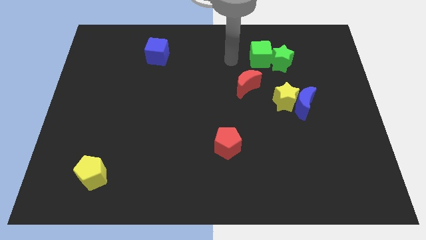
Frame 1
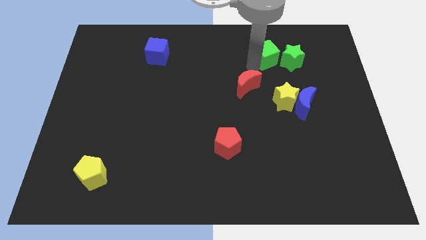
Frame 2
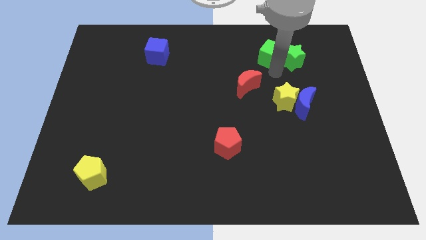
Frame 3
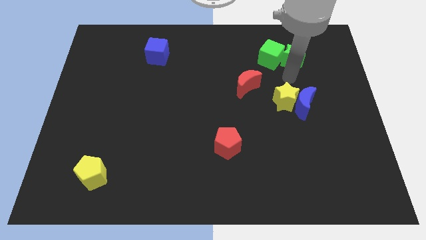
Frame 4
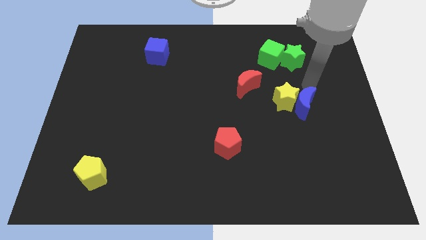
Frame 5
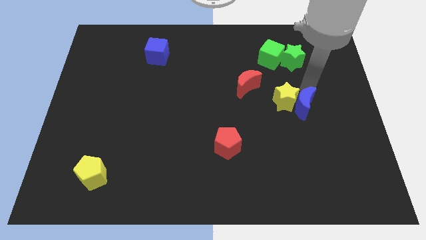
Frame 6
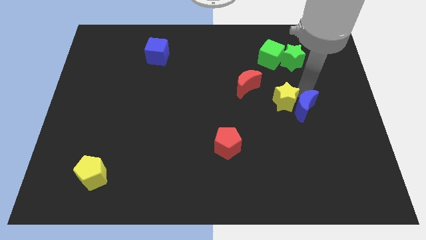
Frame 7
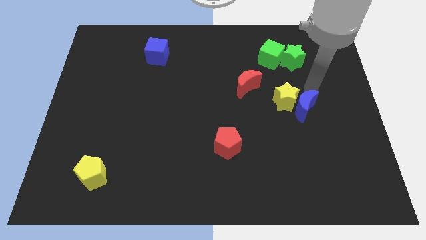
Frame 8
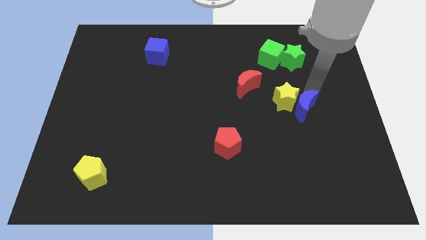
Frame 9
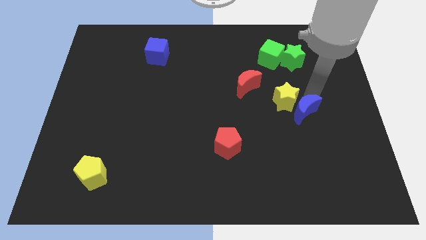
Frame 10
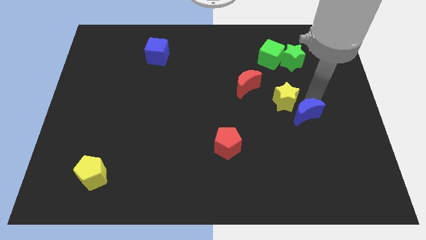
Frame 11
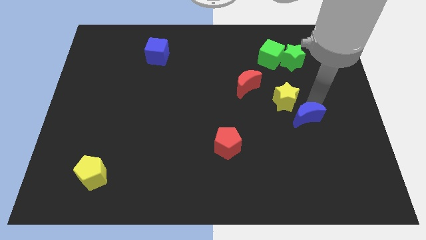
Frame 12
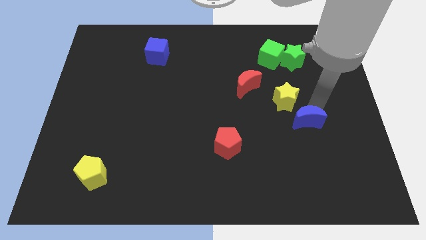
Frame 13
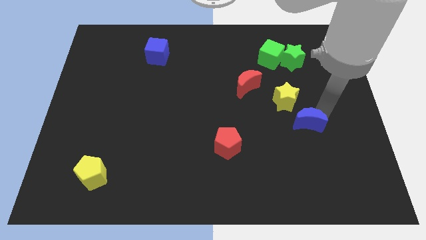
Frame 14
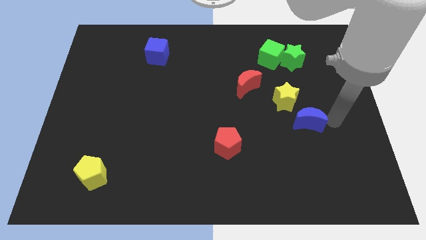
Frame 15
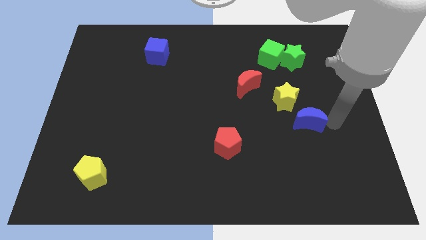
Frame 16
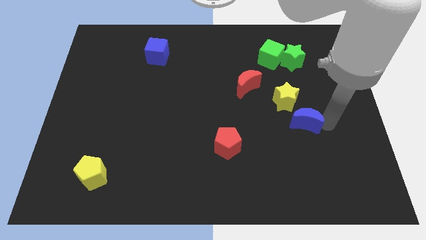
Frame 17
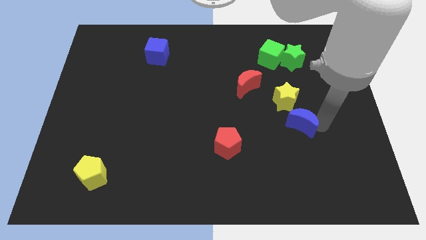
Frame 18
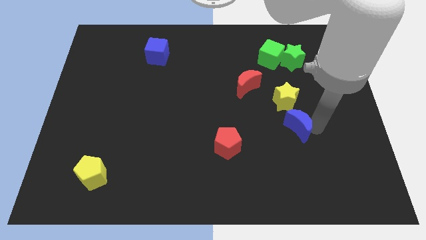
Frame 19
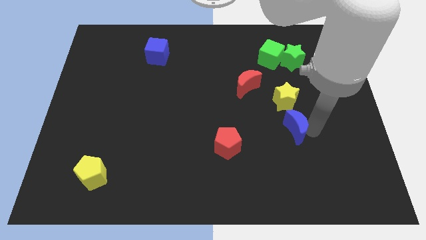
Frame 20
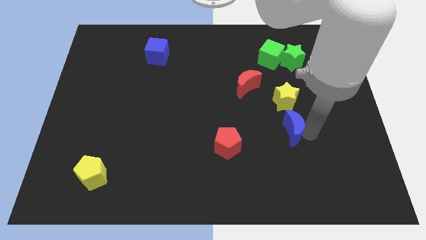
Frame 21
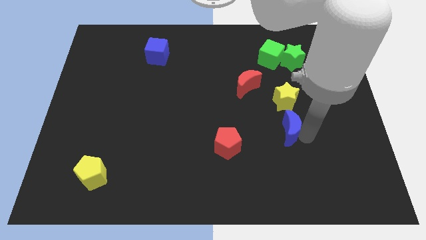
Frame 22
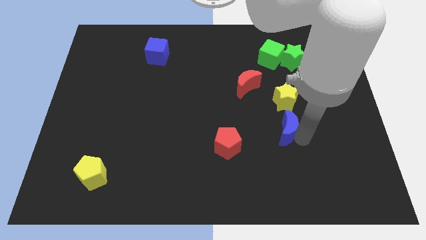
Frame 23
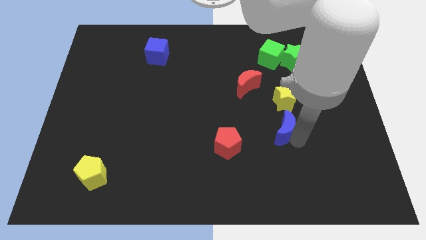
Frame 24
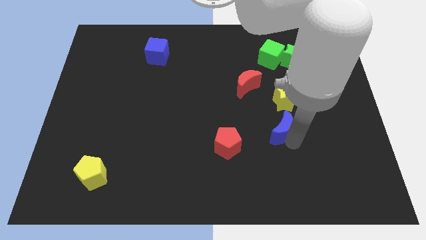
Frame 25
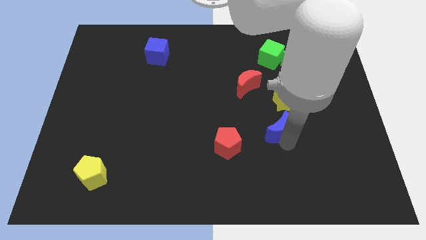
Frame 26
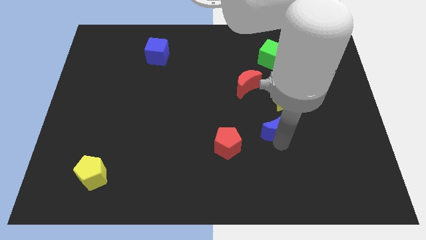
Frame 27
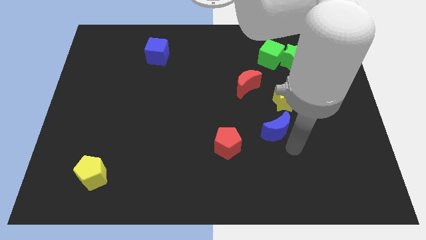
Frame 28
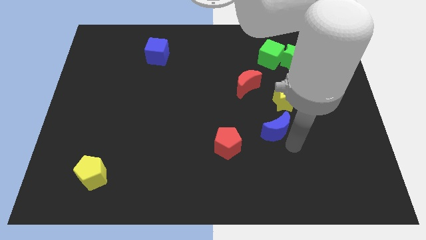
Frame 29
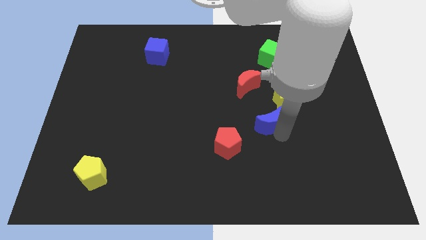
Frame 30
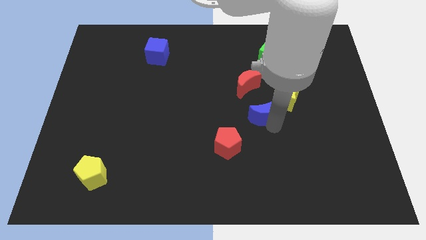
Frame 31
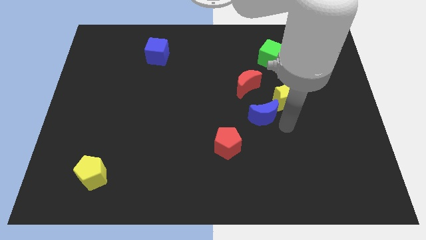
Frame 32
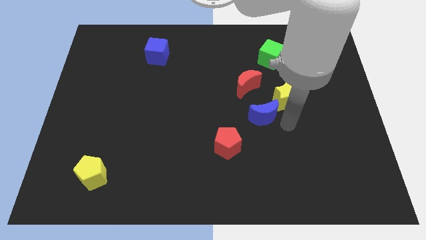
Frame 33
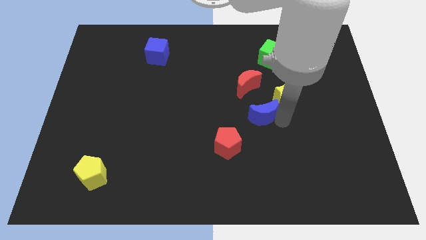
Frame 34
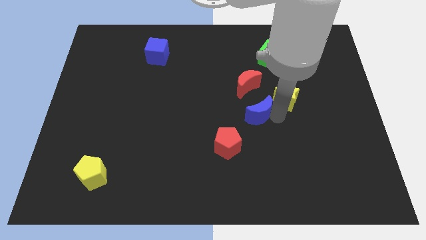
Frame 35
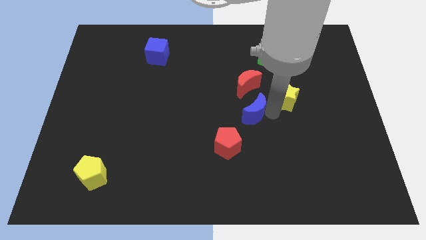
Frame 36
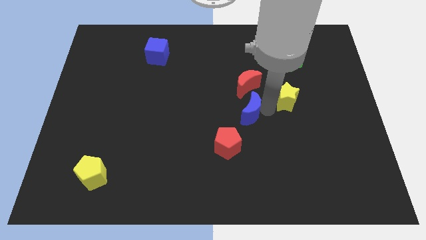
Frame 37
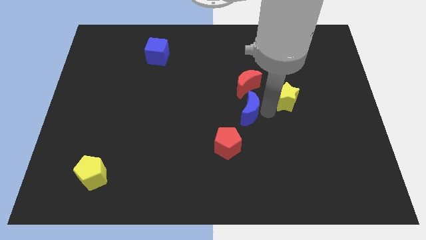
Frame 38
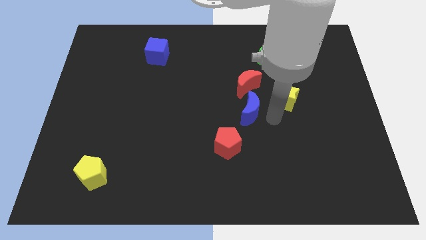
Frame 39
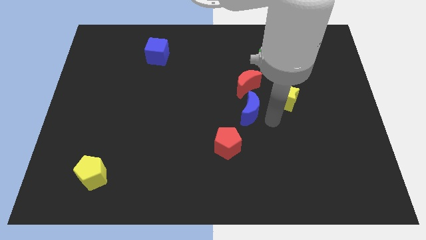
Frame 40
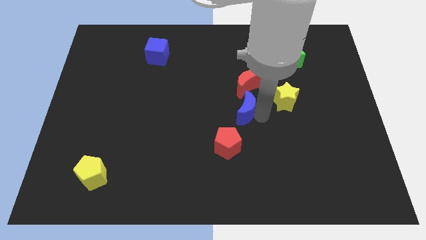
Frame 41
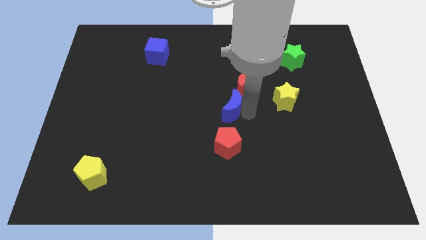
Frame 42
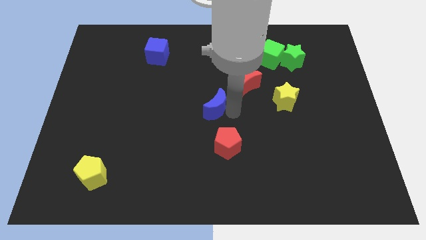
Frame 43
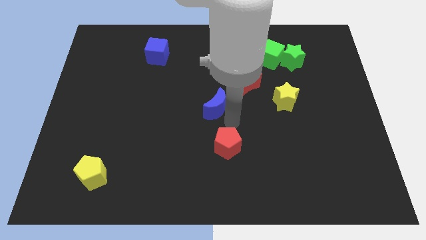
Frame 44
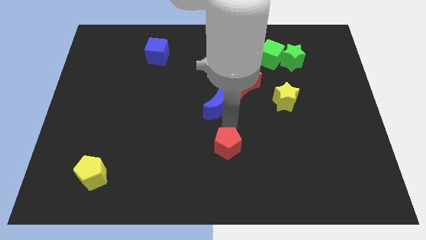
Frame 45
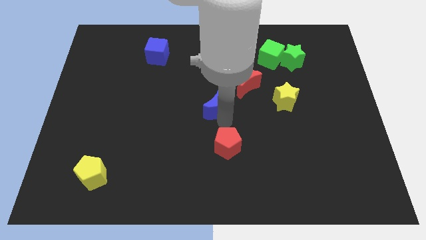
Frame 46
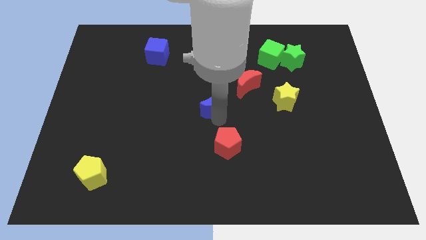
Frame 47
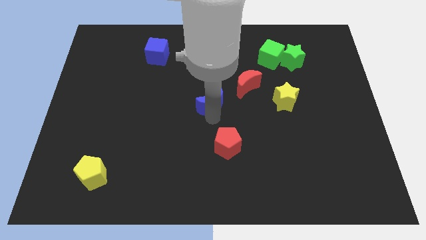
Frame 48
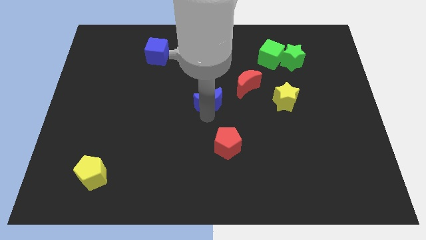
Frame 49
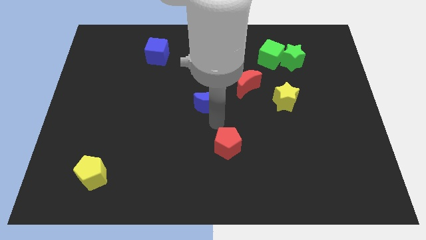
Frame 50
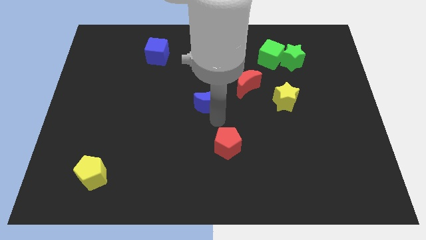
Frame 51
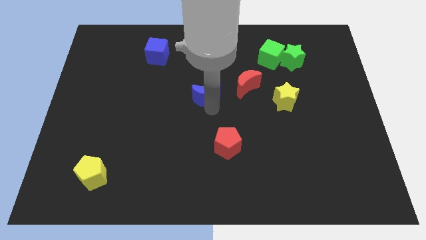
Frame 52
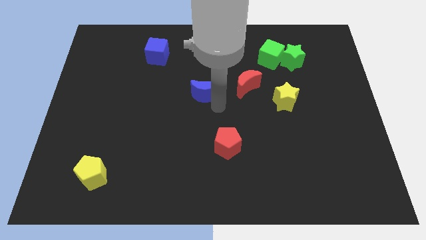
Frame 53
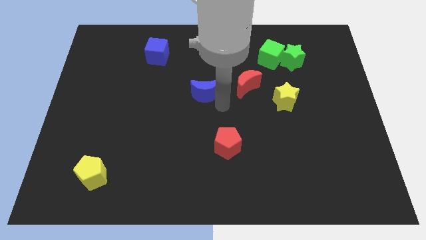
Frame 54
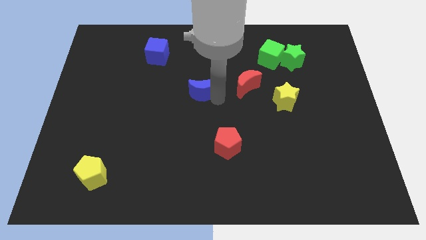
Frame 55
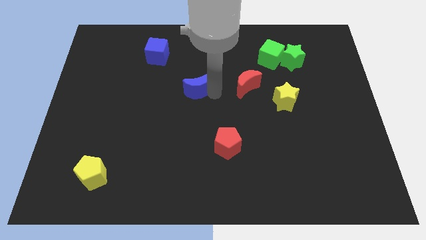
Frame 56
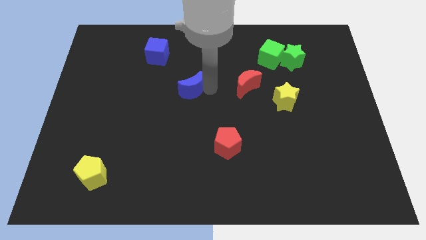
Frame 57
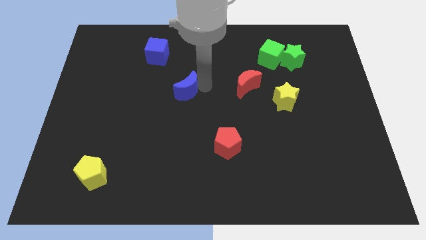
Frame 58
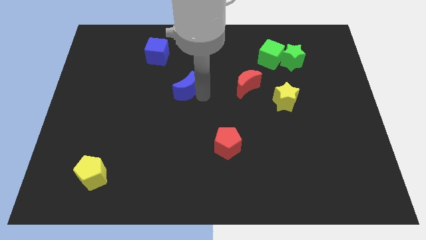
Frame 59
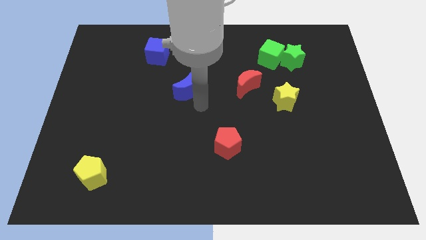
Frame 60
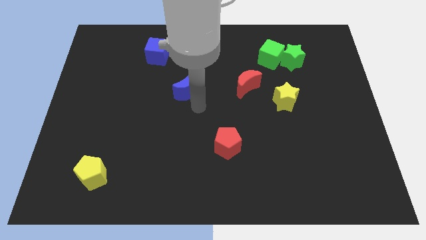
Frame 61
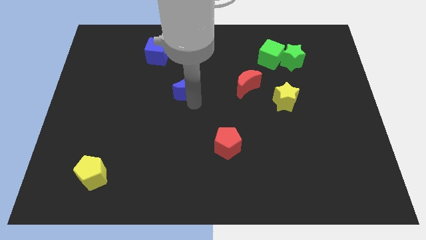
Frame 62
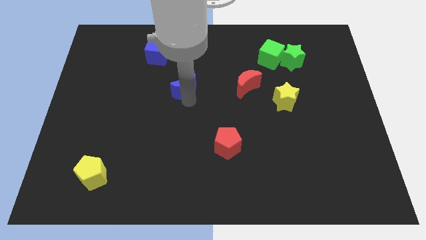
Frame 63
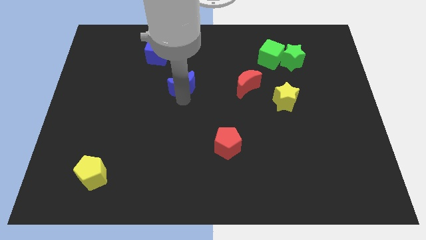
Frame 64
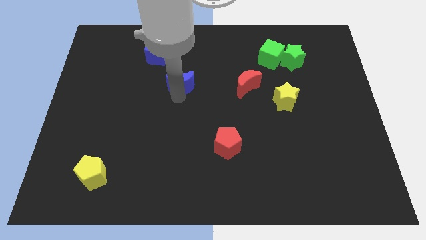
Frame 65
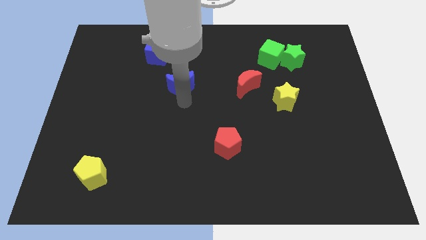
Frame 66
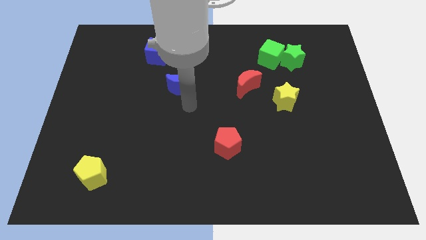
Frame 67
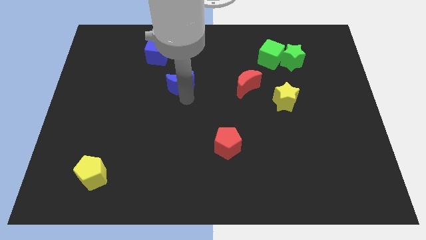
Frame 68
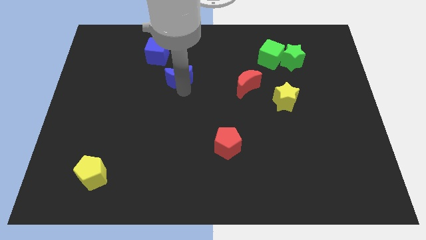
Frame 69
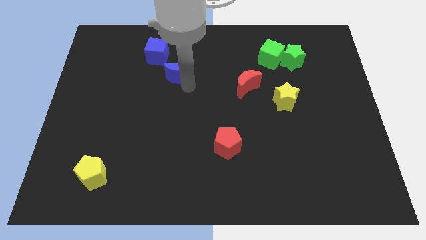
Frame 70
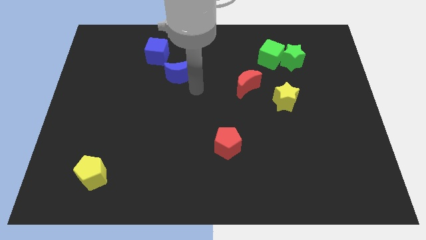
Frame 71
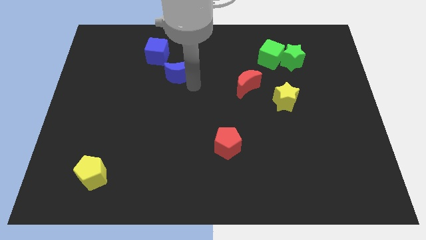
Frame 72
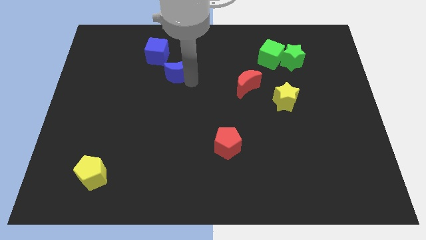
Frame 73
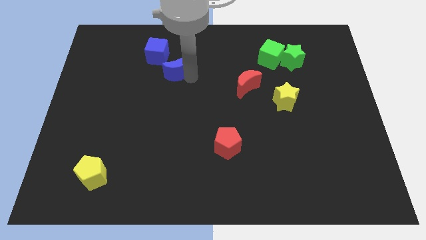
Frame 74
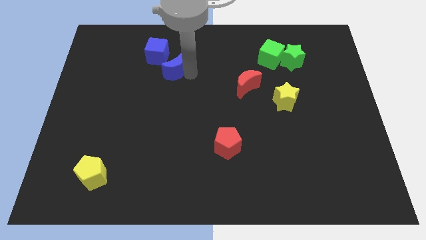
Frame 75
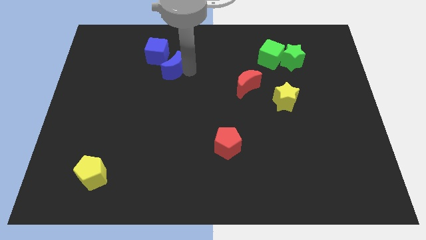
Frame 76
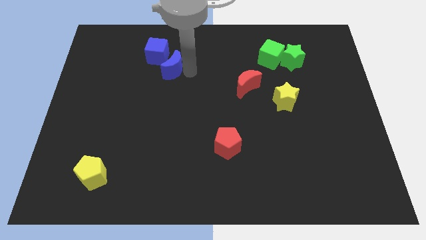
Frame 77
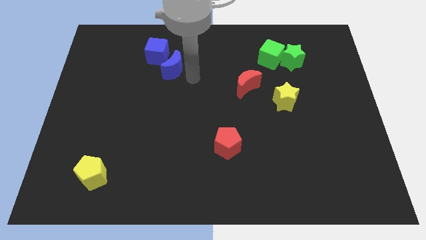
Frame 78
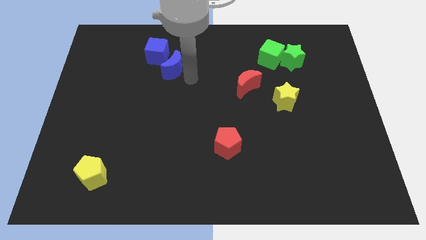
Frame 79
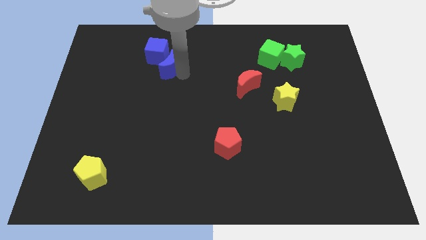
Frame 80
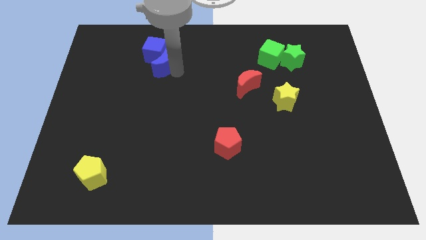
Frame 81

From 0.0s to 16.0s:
push the blue moon to the blue cube

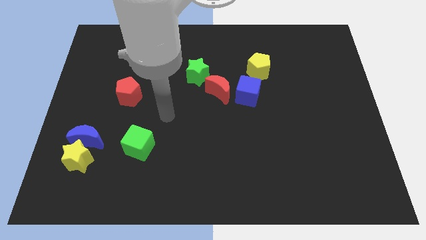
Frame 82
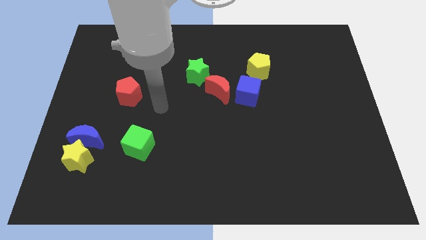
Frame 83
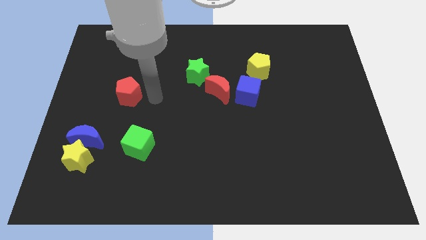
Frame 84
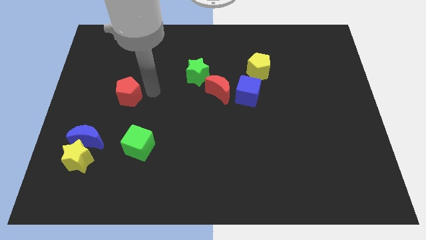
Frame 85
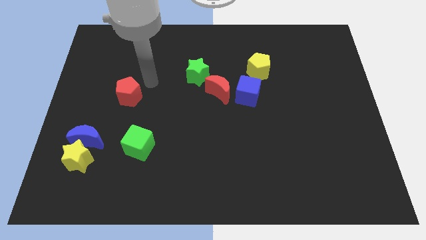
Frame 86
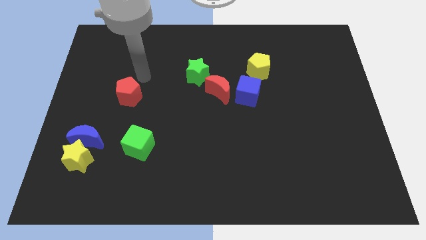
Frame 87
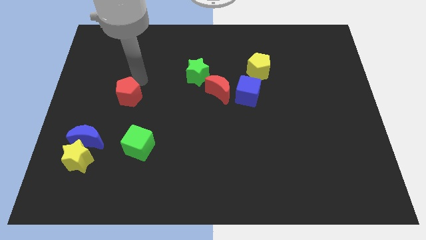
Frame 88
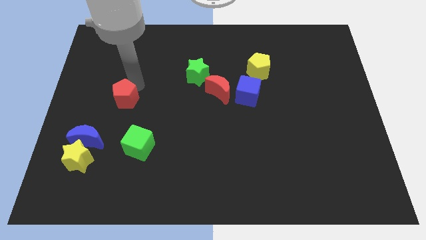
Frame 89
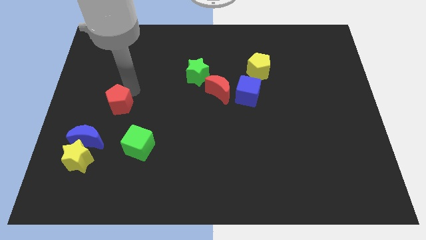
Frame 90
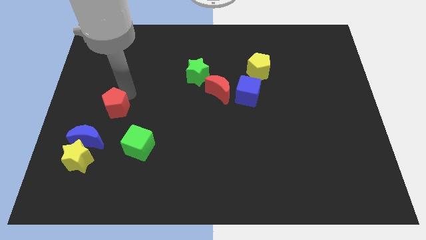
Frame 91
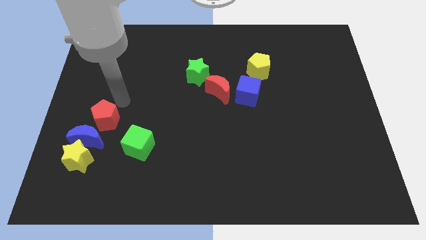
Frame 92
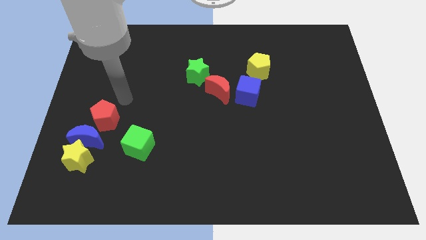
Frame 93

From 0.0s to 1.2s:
put the red pentagon next to the blue moon
